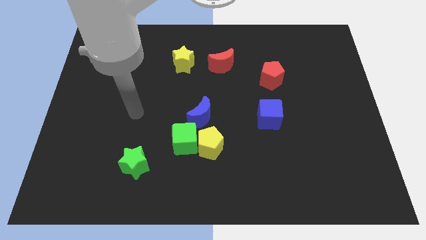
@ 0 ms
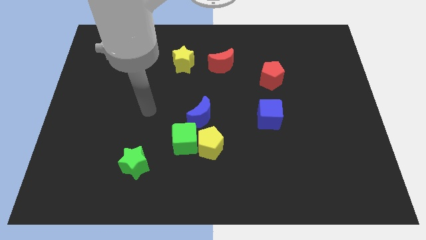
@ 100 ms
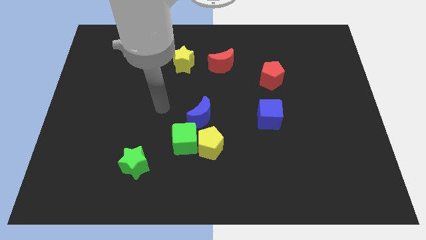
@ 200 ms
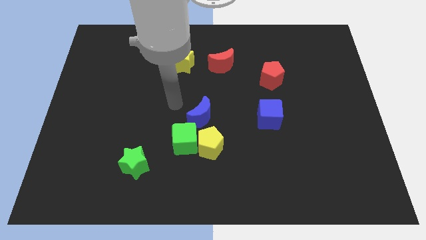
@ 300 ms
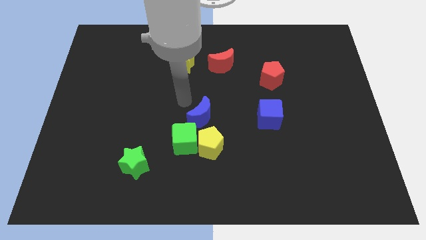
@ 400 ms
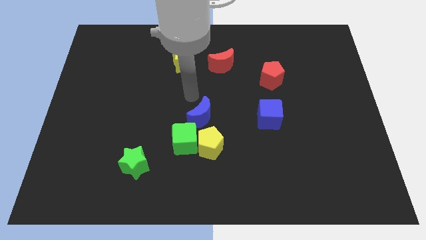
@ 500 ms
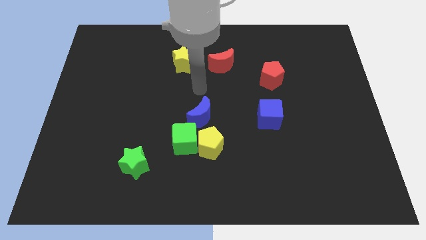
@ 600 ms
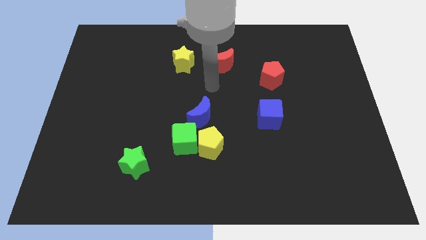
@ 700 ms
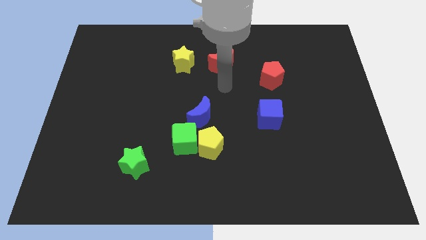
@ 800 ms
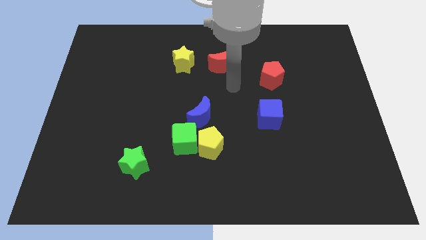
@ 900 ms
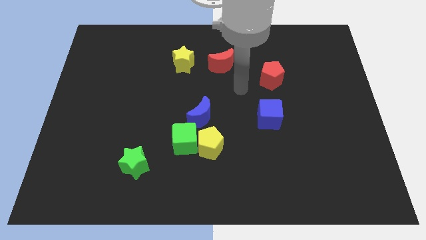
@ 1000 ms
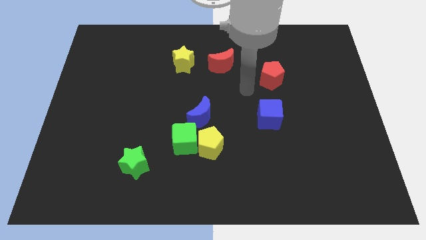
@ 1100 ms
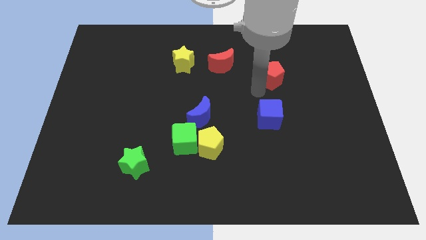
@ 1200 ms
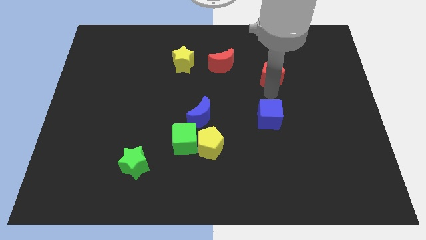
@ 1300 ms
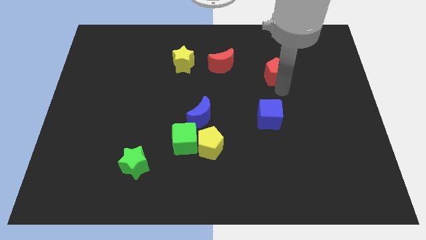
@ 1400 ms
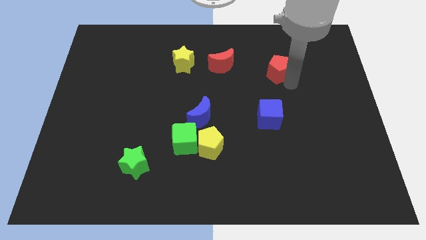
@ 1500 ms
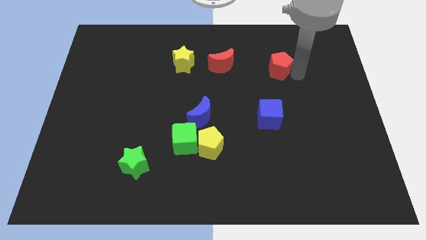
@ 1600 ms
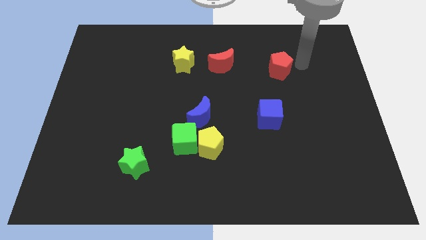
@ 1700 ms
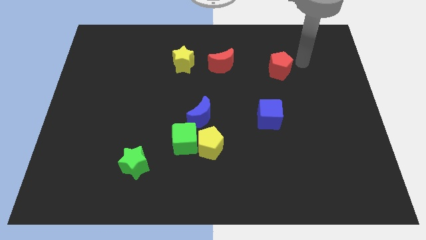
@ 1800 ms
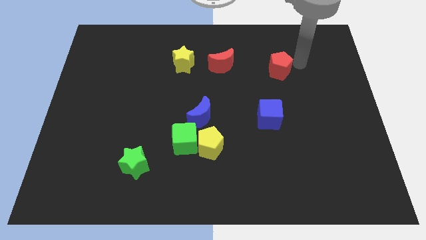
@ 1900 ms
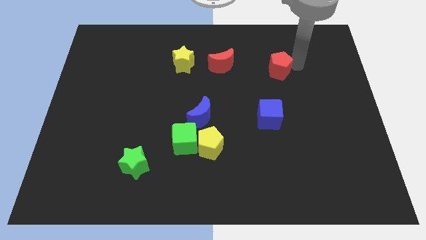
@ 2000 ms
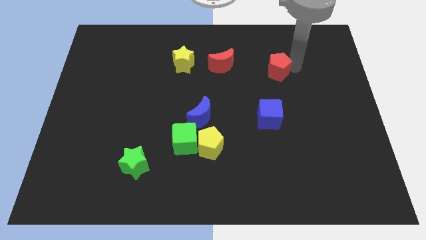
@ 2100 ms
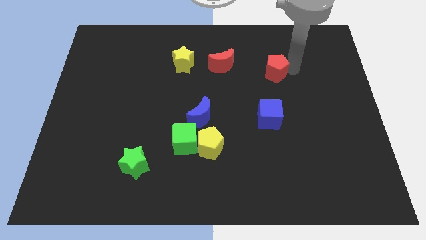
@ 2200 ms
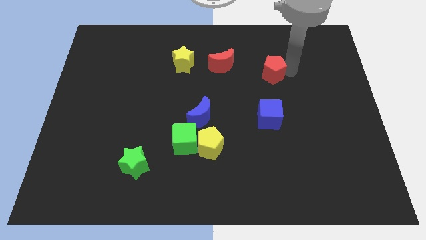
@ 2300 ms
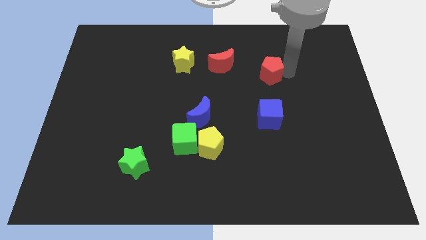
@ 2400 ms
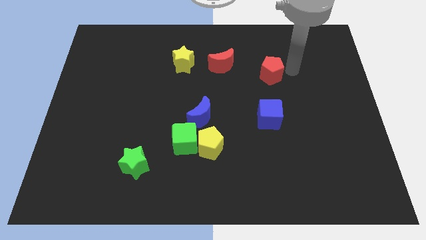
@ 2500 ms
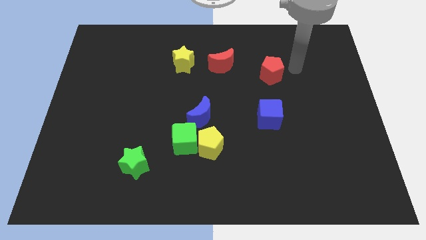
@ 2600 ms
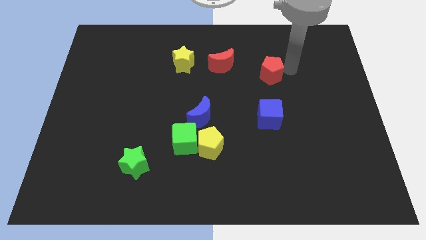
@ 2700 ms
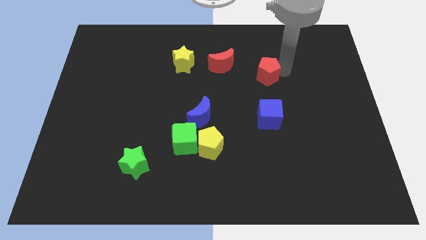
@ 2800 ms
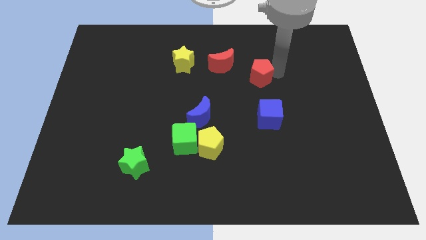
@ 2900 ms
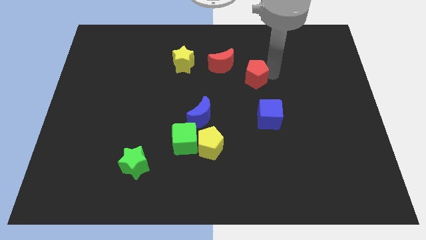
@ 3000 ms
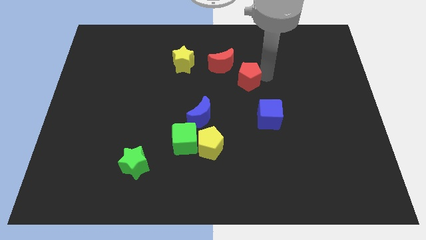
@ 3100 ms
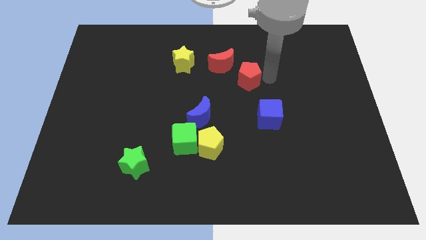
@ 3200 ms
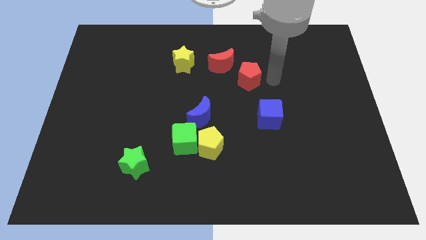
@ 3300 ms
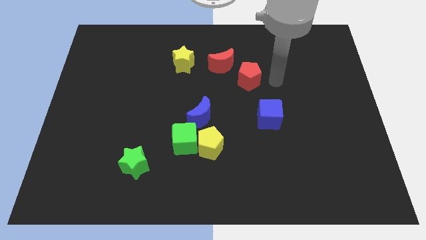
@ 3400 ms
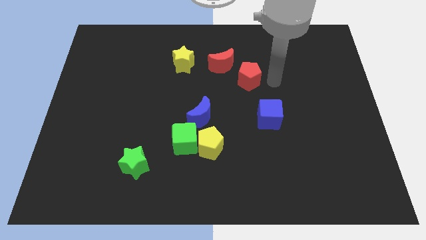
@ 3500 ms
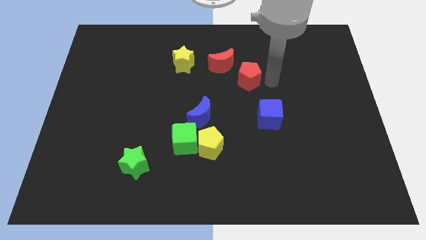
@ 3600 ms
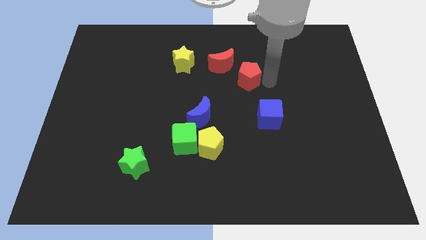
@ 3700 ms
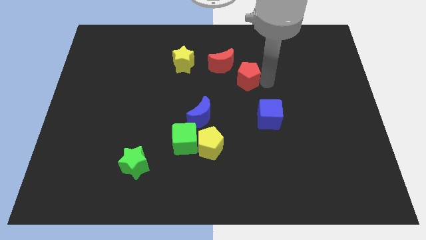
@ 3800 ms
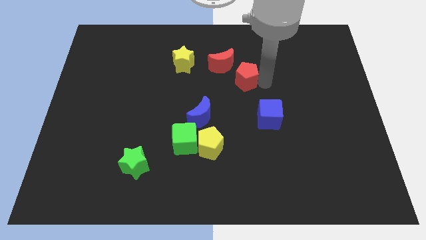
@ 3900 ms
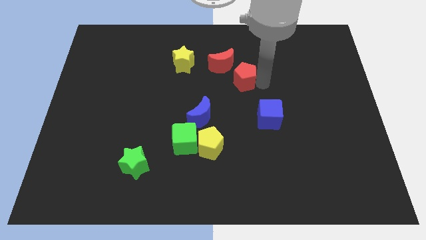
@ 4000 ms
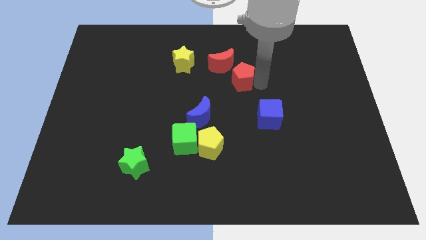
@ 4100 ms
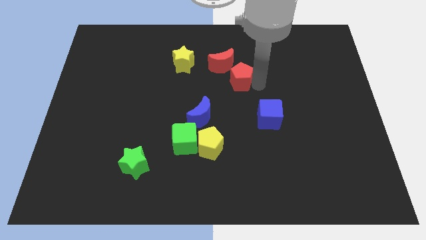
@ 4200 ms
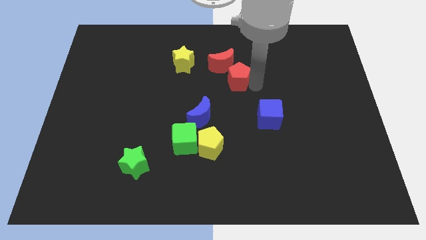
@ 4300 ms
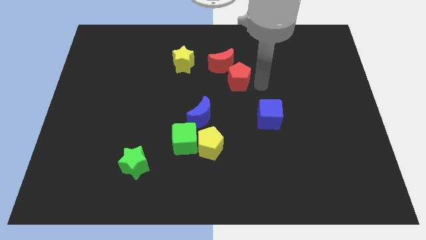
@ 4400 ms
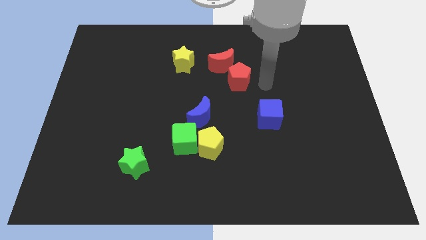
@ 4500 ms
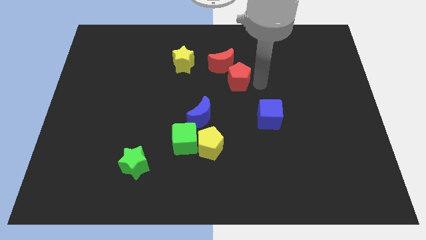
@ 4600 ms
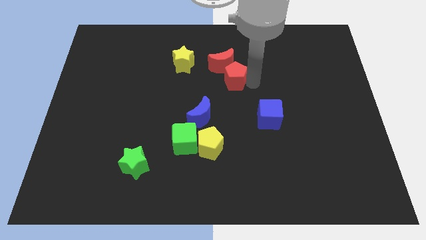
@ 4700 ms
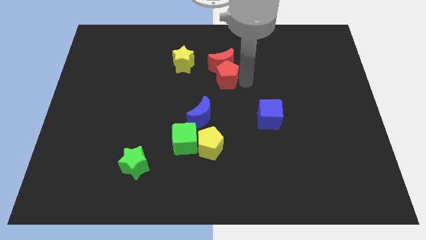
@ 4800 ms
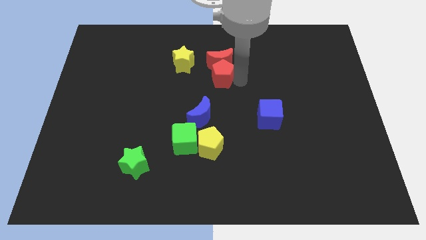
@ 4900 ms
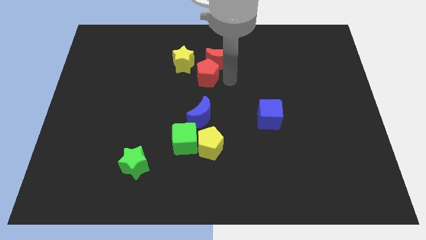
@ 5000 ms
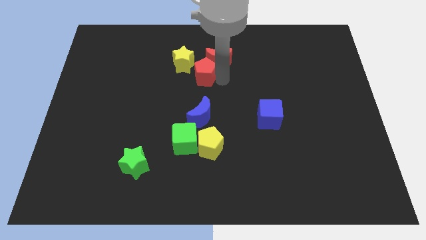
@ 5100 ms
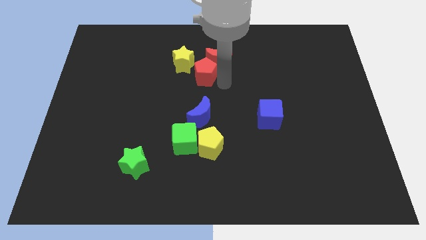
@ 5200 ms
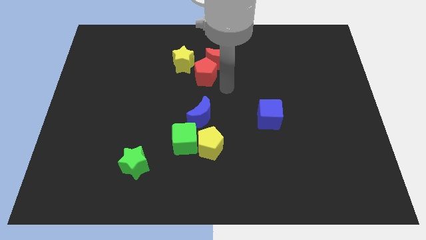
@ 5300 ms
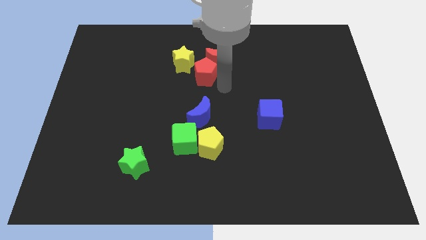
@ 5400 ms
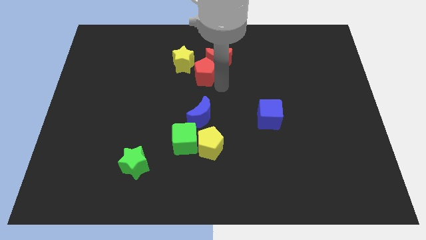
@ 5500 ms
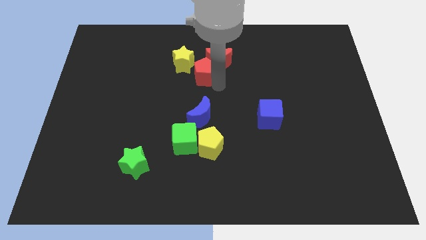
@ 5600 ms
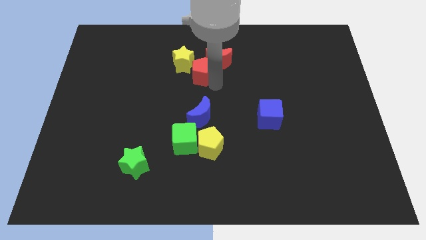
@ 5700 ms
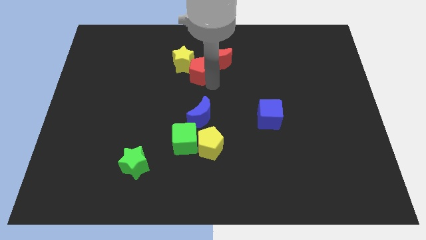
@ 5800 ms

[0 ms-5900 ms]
move the red pentagon next to the yellow star

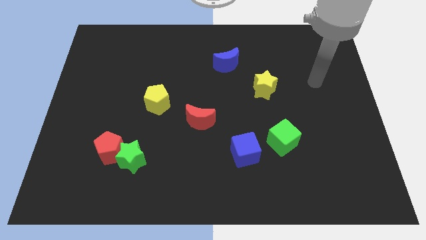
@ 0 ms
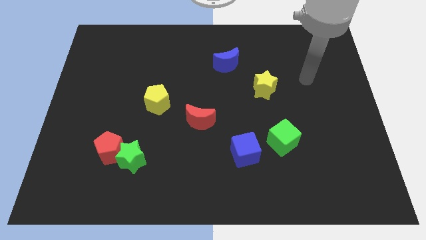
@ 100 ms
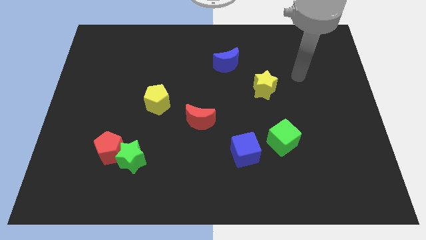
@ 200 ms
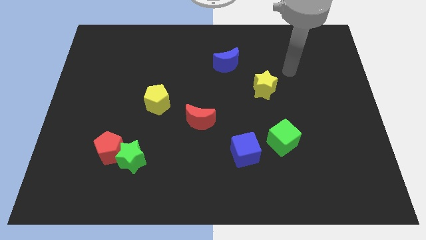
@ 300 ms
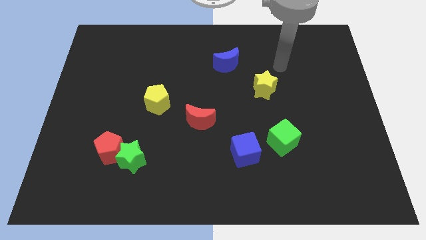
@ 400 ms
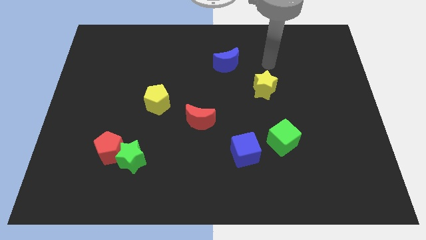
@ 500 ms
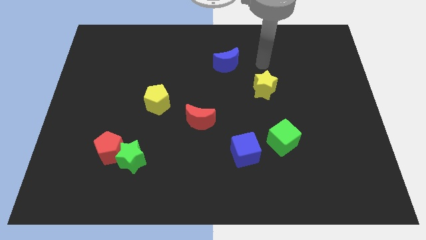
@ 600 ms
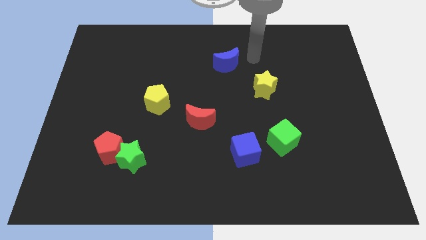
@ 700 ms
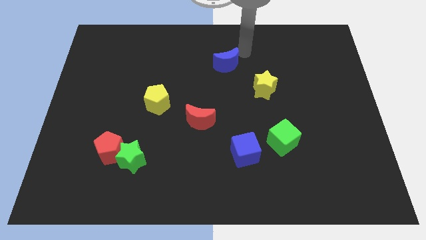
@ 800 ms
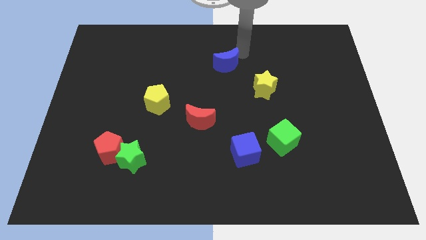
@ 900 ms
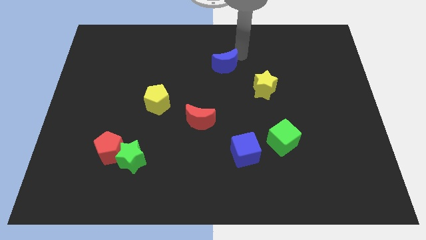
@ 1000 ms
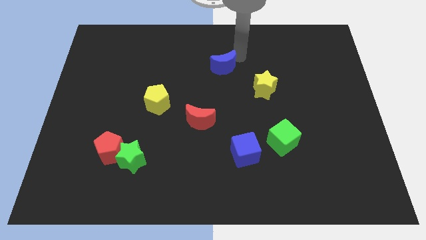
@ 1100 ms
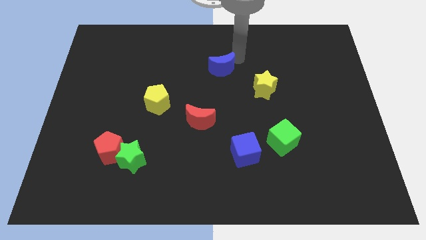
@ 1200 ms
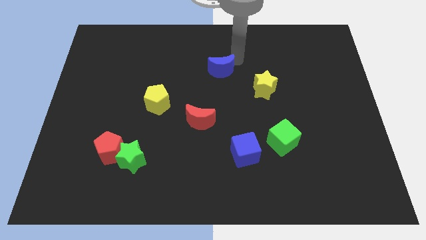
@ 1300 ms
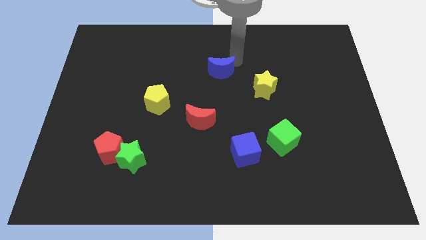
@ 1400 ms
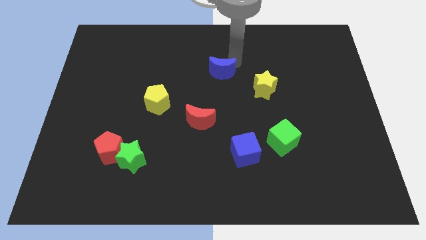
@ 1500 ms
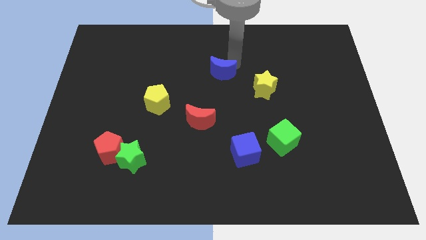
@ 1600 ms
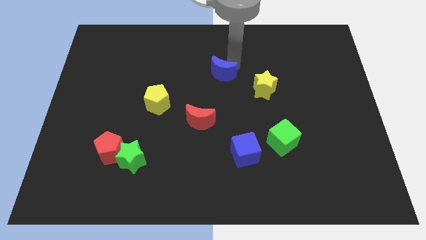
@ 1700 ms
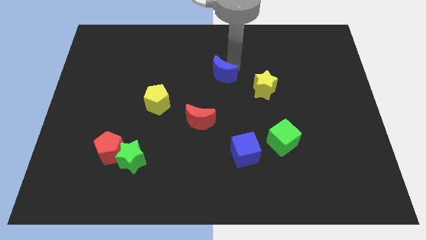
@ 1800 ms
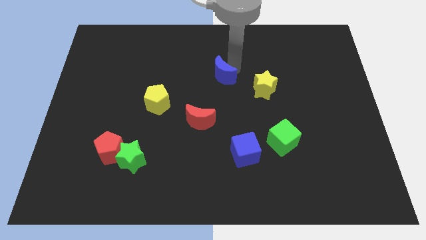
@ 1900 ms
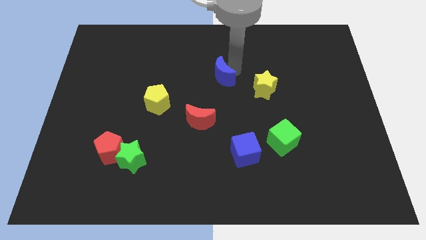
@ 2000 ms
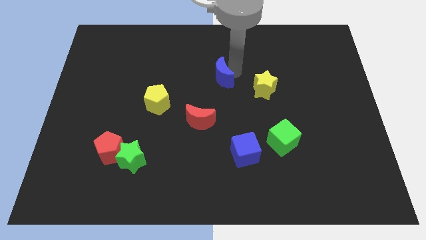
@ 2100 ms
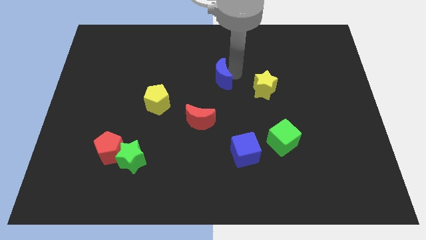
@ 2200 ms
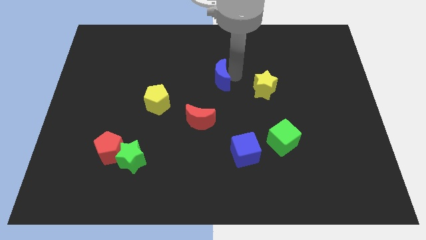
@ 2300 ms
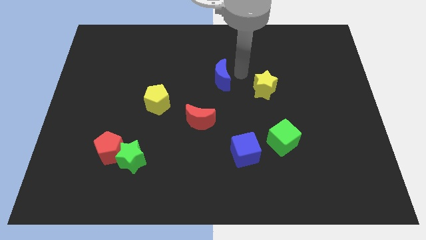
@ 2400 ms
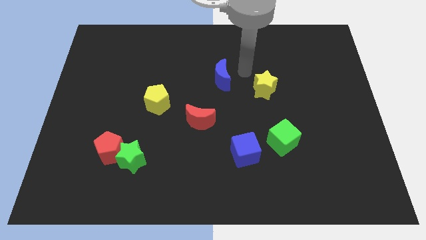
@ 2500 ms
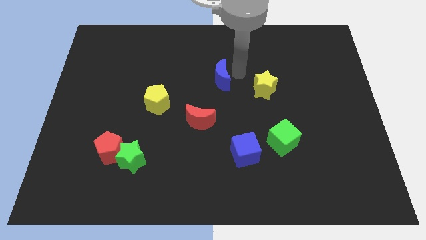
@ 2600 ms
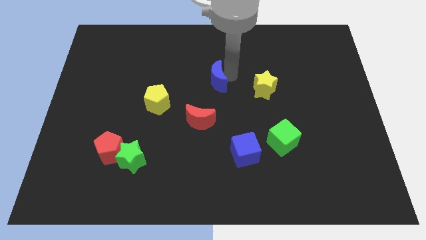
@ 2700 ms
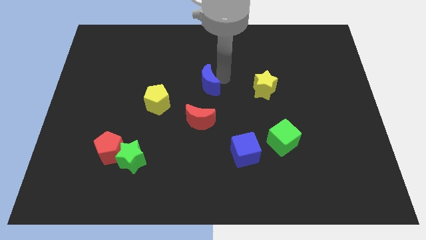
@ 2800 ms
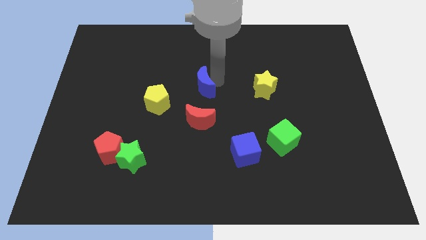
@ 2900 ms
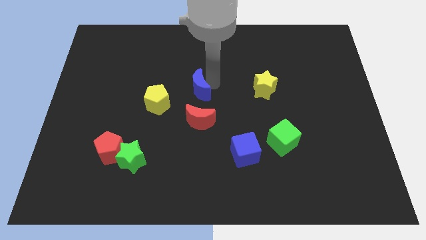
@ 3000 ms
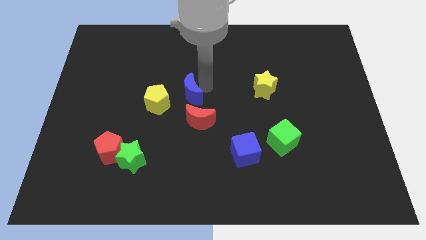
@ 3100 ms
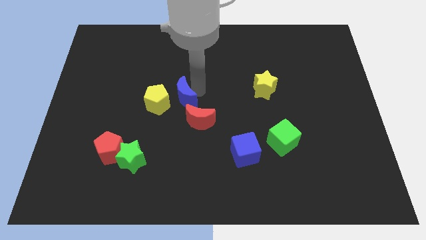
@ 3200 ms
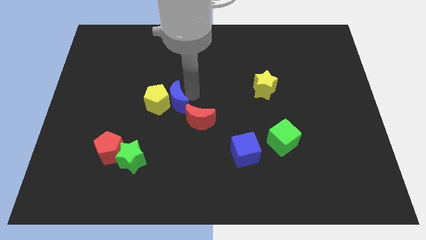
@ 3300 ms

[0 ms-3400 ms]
move the blue moon close to the yellow pentagon
